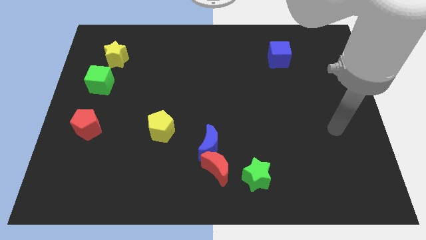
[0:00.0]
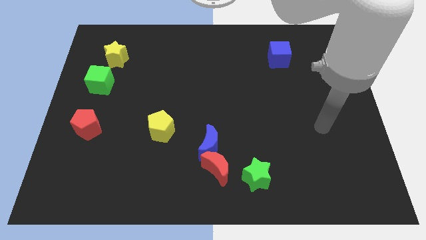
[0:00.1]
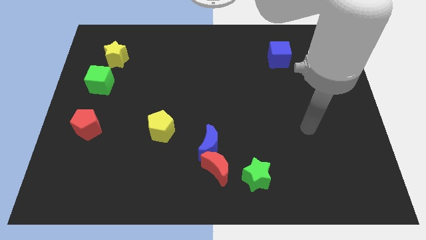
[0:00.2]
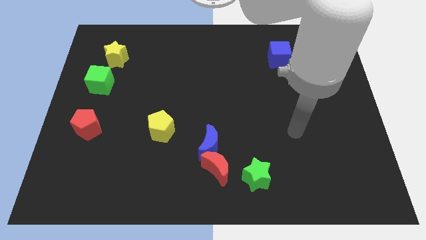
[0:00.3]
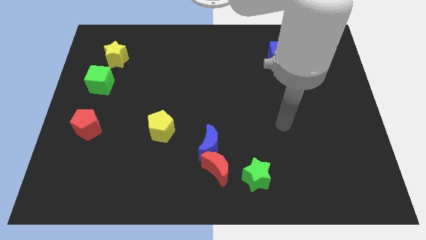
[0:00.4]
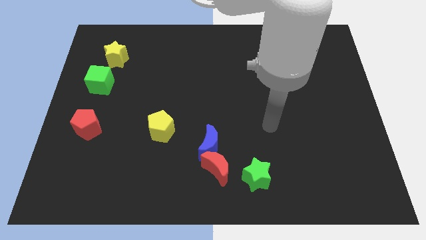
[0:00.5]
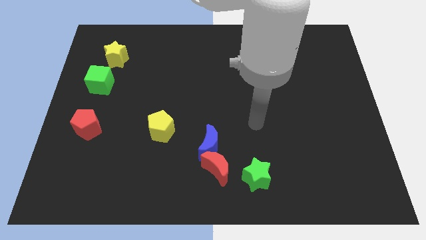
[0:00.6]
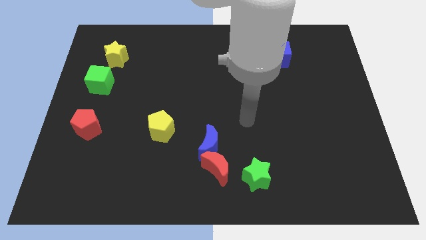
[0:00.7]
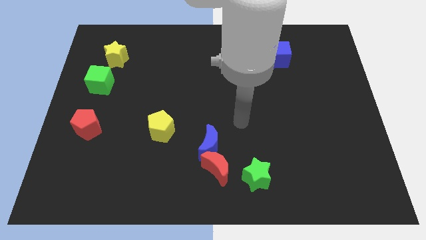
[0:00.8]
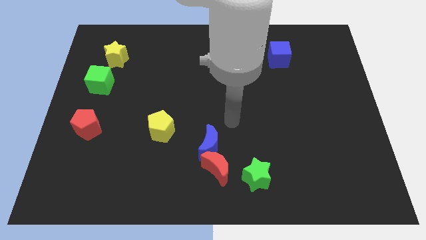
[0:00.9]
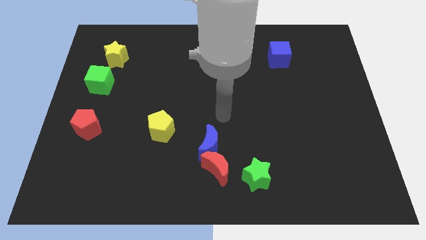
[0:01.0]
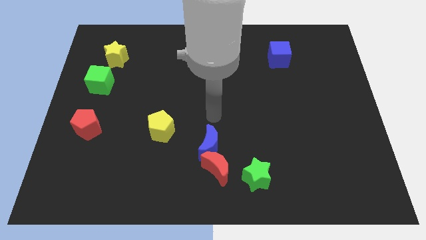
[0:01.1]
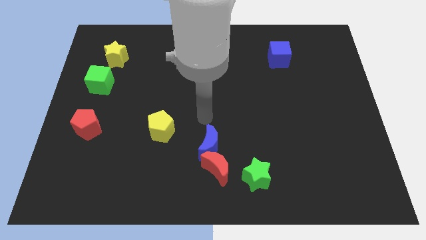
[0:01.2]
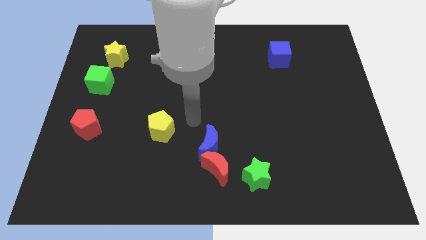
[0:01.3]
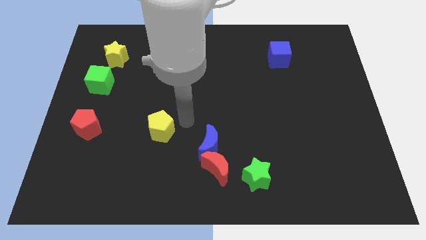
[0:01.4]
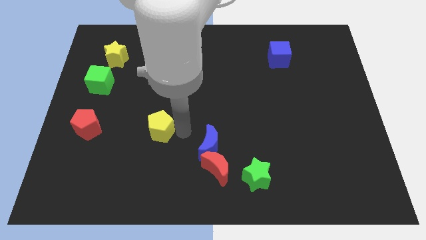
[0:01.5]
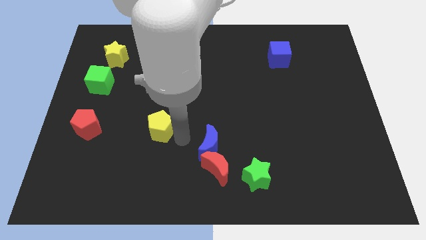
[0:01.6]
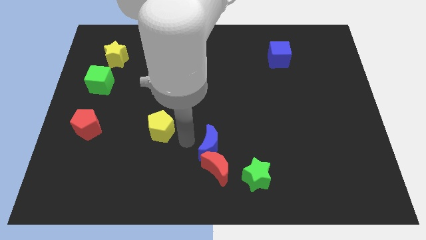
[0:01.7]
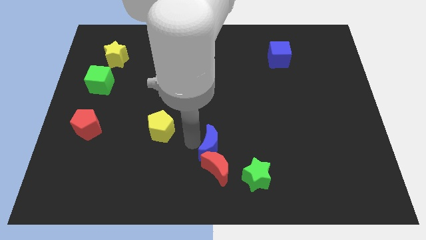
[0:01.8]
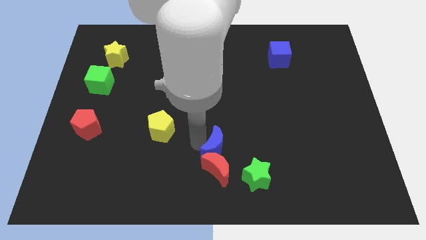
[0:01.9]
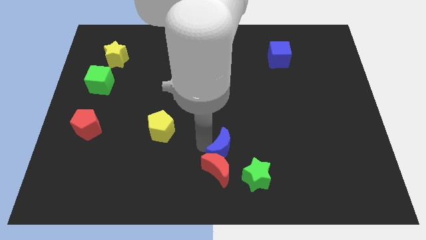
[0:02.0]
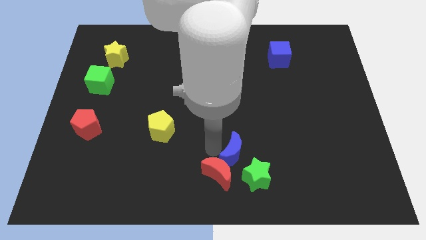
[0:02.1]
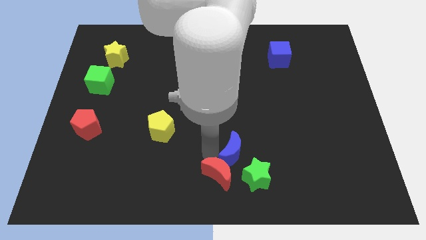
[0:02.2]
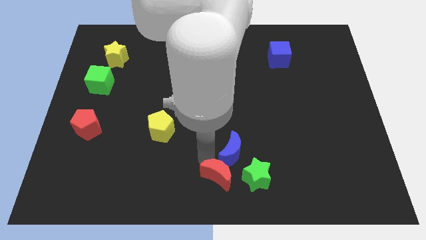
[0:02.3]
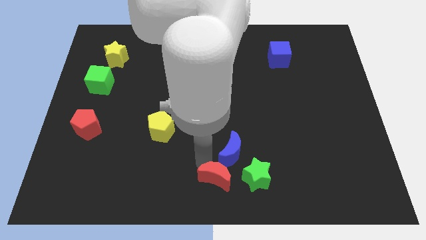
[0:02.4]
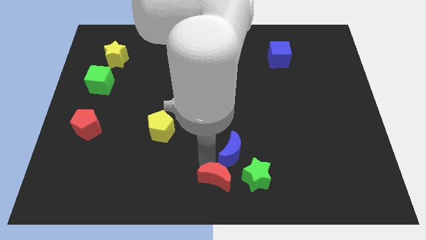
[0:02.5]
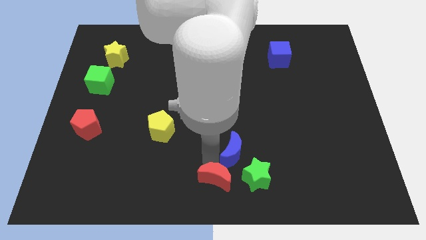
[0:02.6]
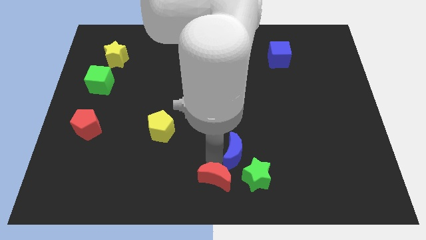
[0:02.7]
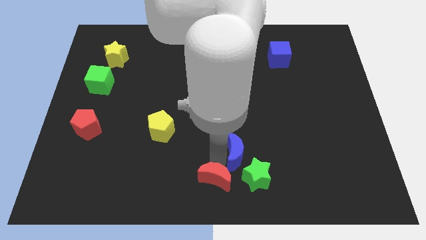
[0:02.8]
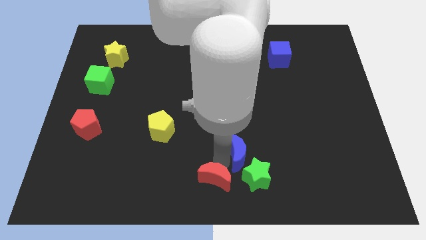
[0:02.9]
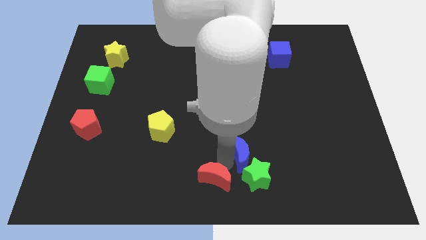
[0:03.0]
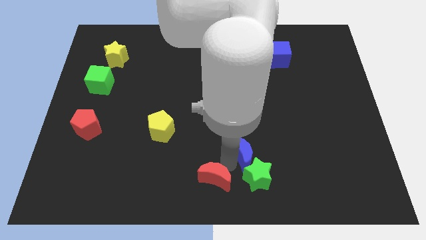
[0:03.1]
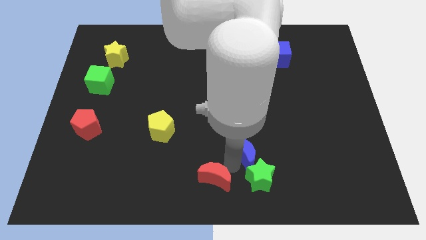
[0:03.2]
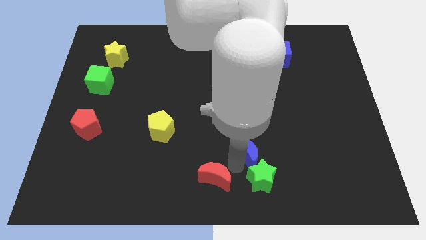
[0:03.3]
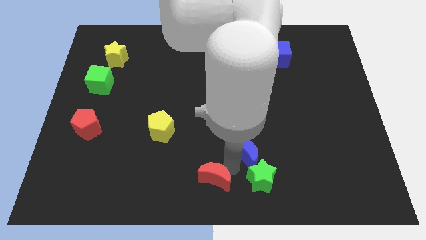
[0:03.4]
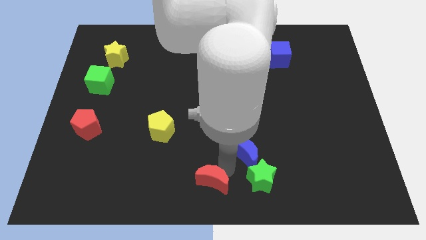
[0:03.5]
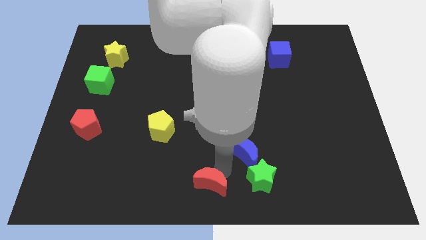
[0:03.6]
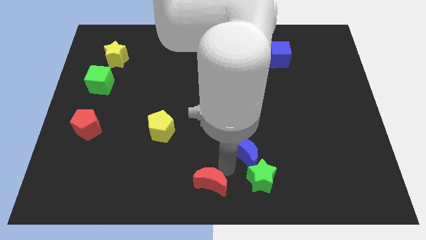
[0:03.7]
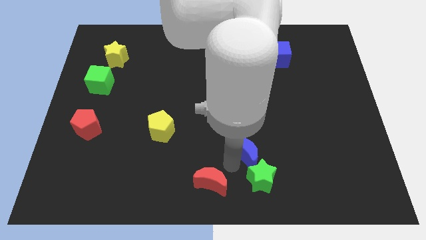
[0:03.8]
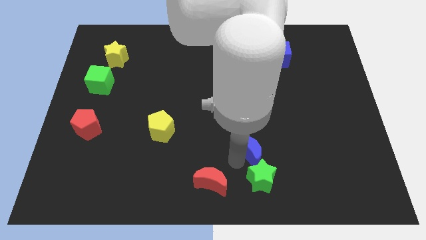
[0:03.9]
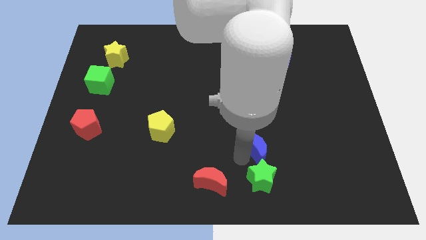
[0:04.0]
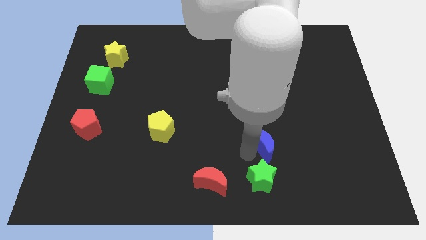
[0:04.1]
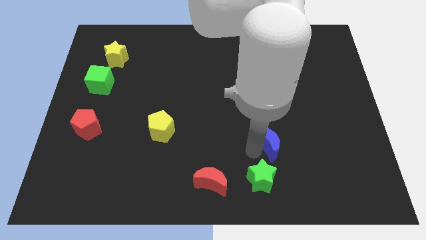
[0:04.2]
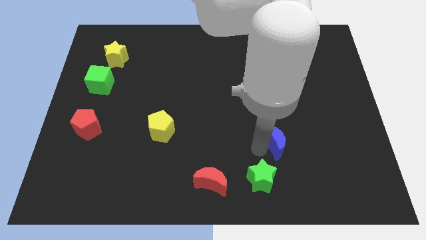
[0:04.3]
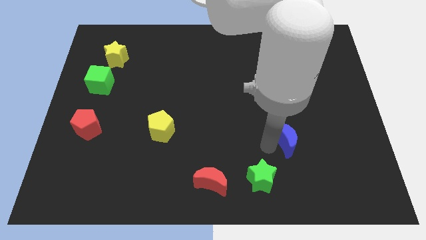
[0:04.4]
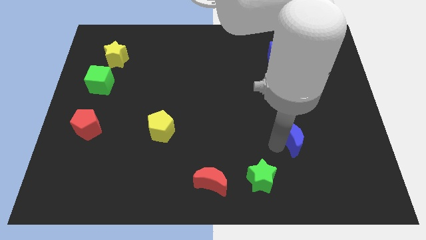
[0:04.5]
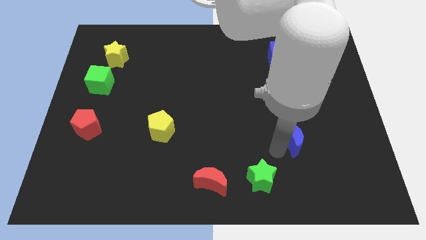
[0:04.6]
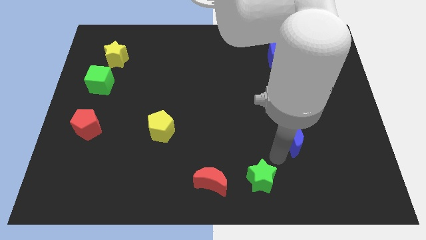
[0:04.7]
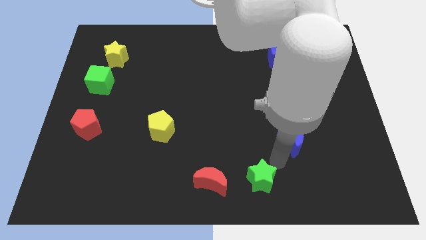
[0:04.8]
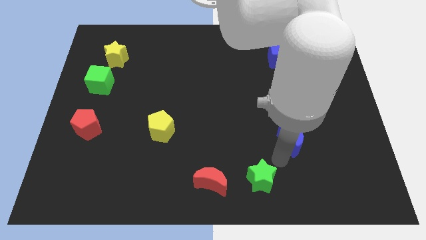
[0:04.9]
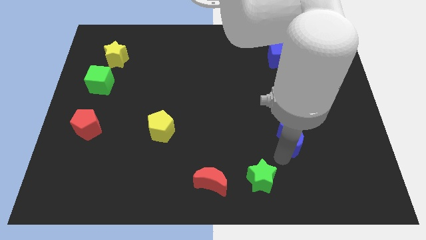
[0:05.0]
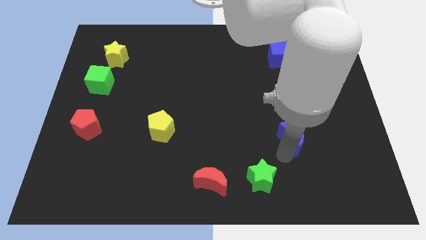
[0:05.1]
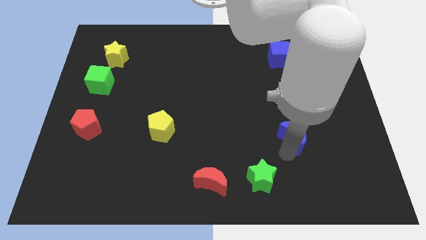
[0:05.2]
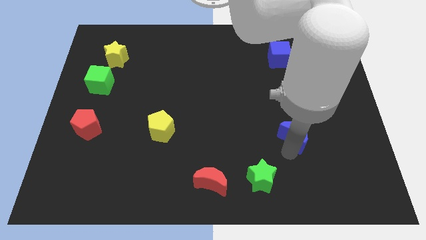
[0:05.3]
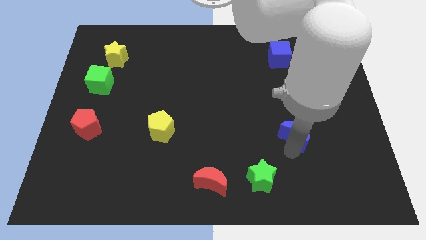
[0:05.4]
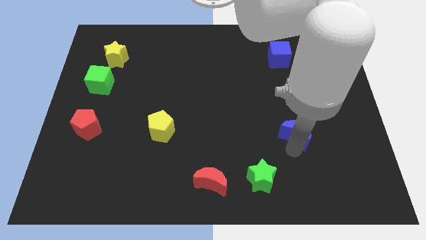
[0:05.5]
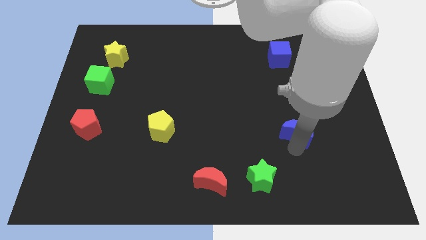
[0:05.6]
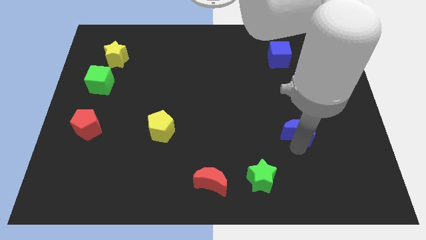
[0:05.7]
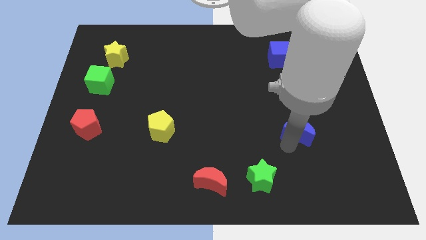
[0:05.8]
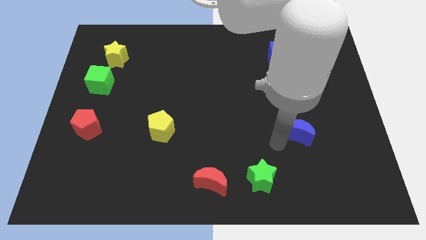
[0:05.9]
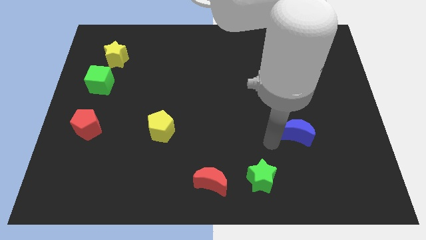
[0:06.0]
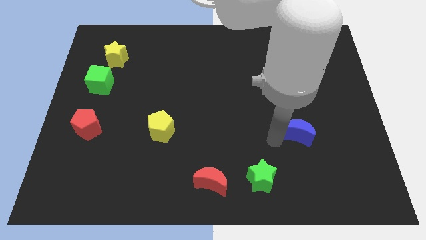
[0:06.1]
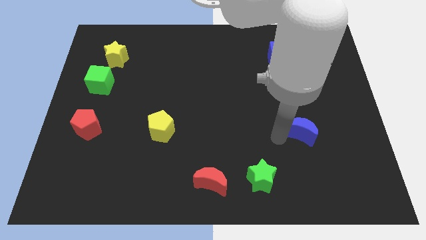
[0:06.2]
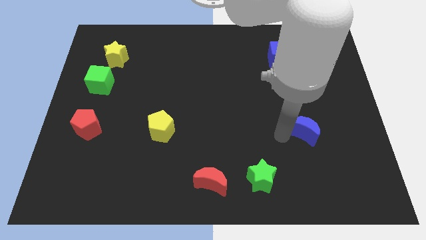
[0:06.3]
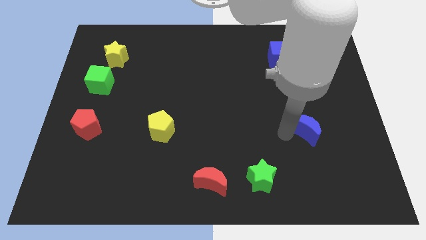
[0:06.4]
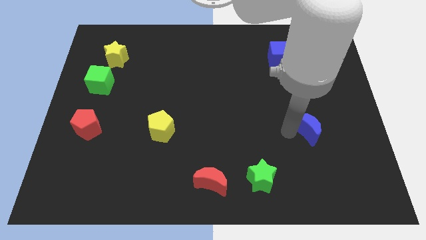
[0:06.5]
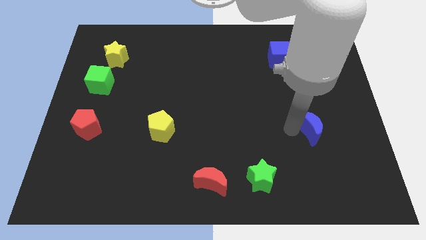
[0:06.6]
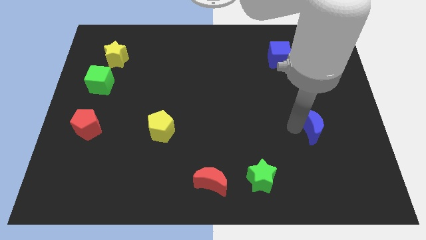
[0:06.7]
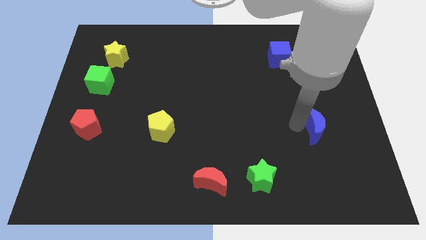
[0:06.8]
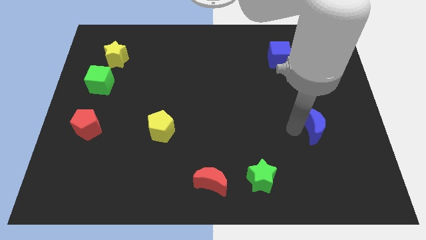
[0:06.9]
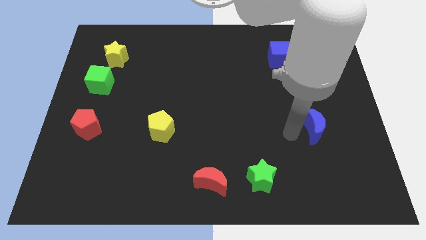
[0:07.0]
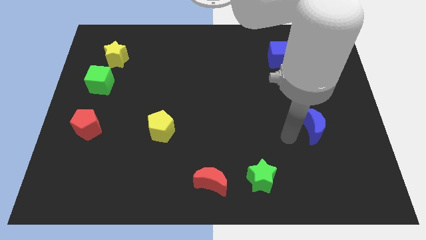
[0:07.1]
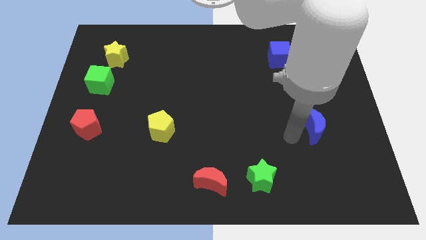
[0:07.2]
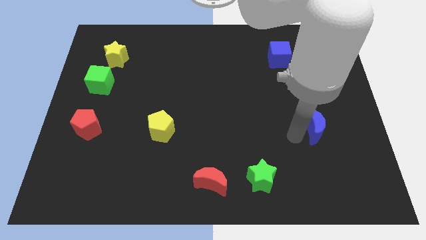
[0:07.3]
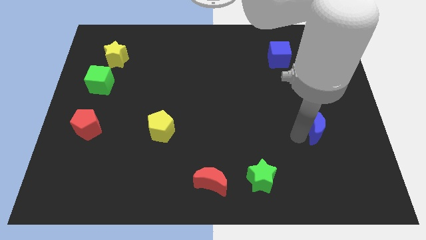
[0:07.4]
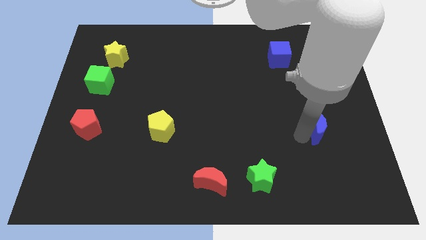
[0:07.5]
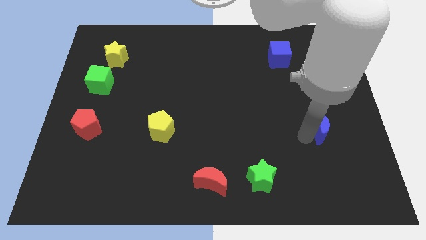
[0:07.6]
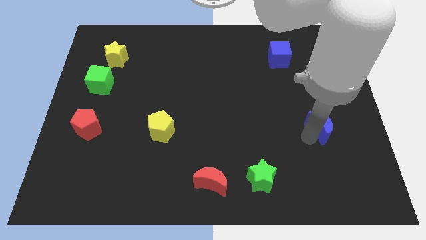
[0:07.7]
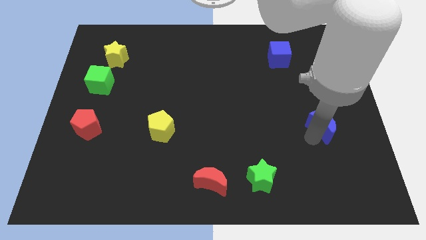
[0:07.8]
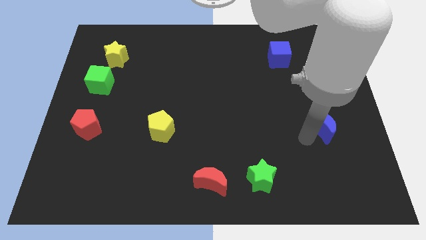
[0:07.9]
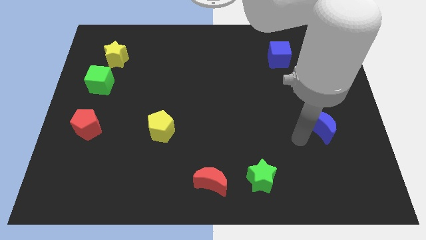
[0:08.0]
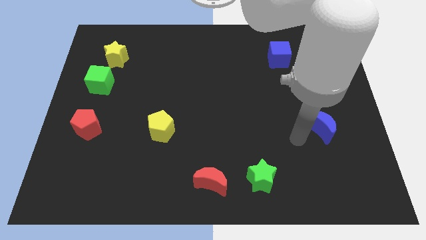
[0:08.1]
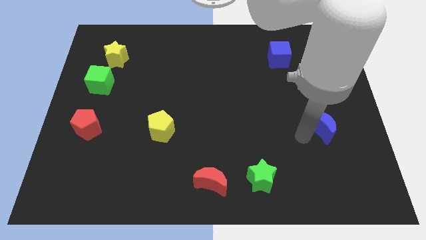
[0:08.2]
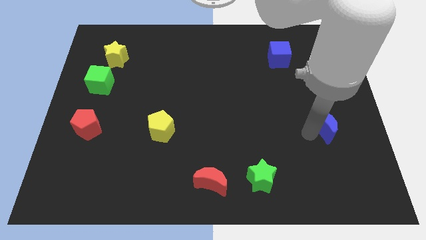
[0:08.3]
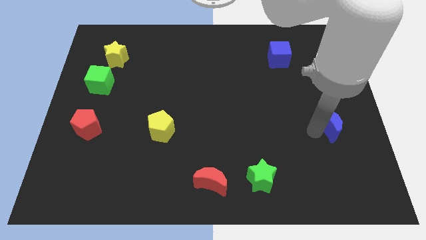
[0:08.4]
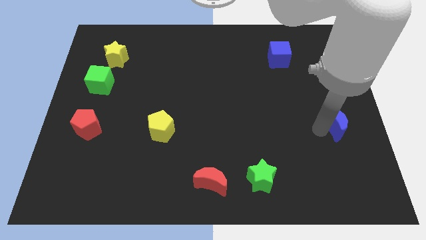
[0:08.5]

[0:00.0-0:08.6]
push the blue moon to the center right
